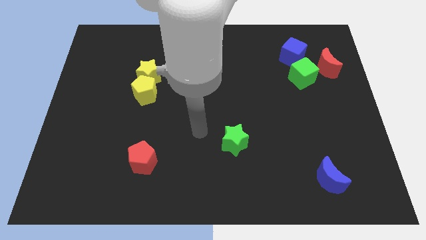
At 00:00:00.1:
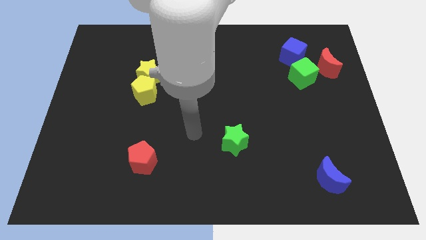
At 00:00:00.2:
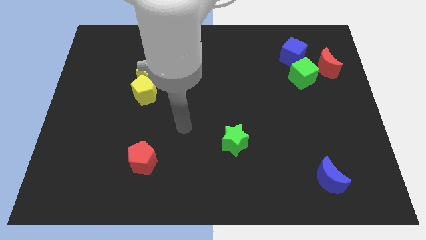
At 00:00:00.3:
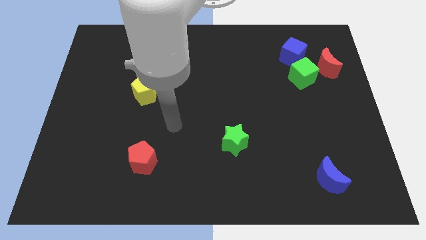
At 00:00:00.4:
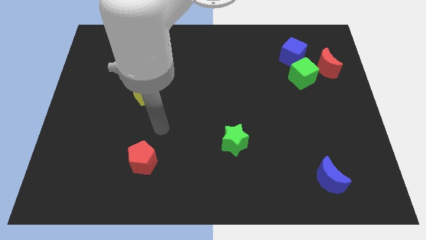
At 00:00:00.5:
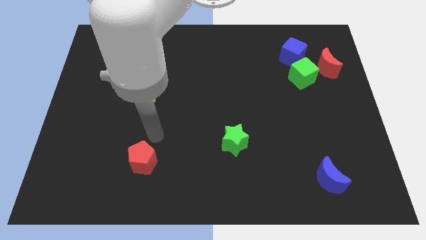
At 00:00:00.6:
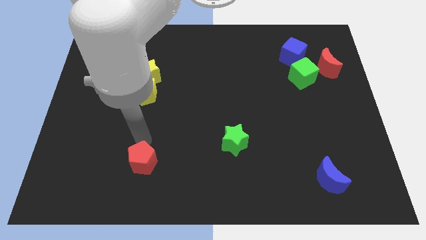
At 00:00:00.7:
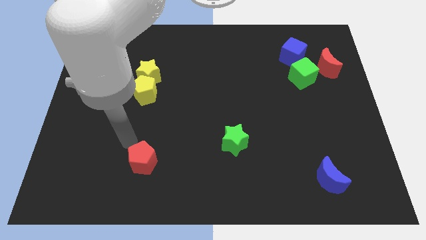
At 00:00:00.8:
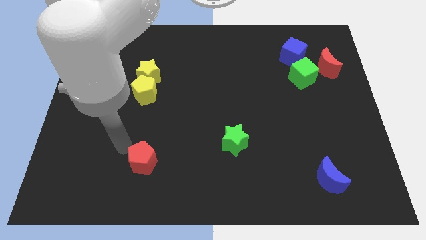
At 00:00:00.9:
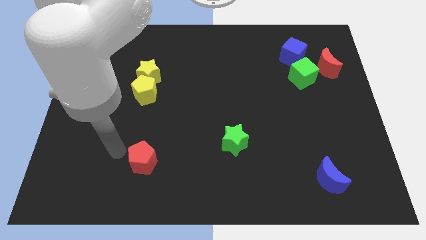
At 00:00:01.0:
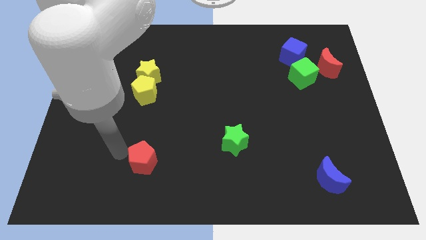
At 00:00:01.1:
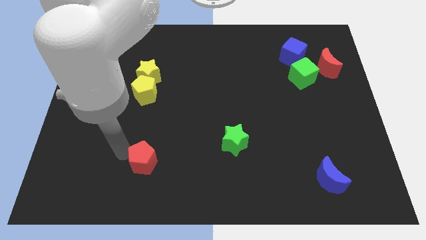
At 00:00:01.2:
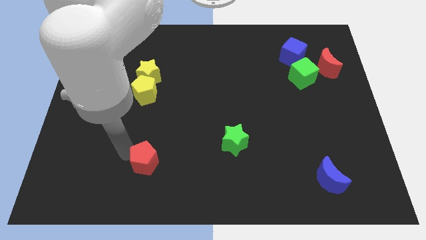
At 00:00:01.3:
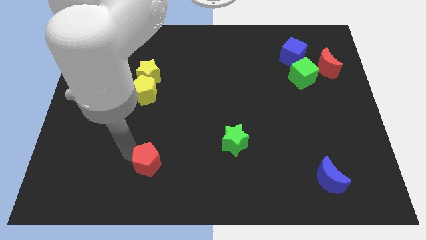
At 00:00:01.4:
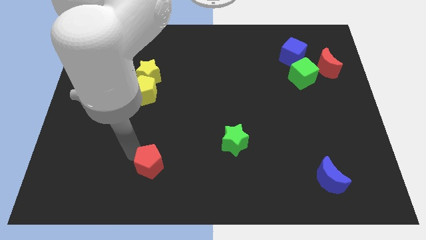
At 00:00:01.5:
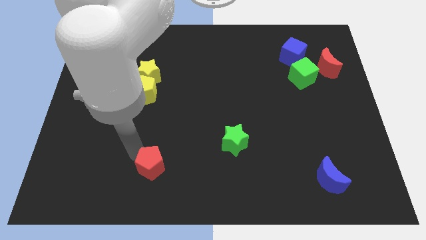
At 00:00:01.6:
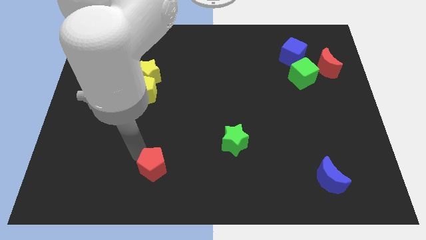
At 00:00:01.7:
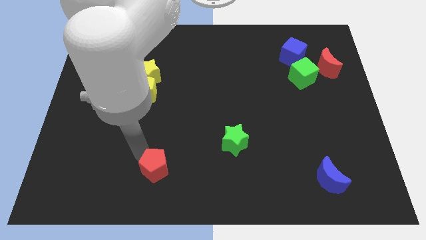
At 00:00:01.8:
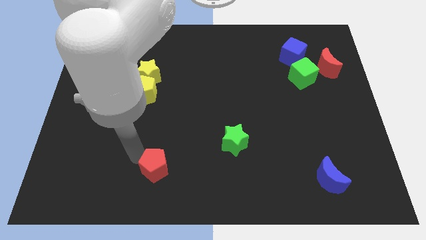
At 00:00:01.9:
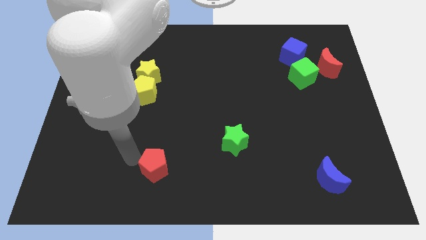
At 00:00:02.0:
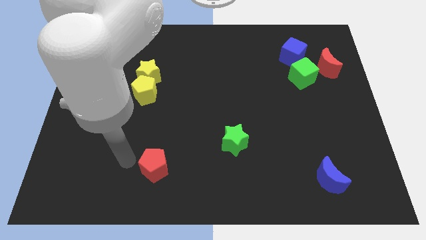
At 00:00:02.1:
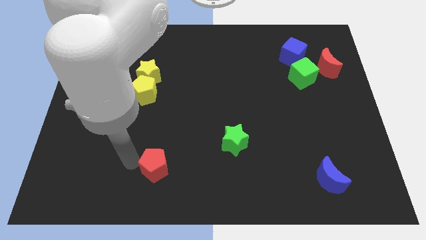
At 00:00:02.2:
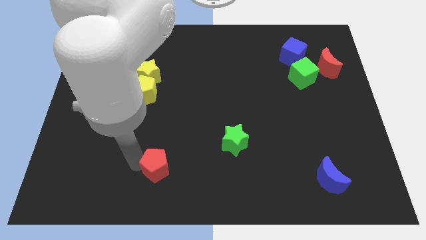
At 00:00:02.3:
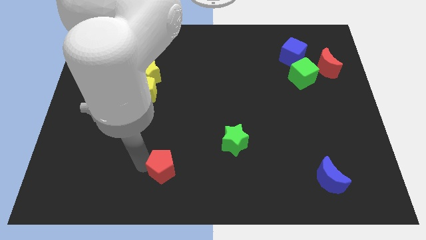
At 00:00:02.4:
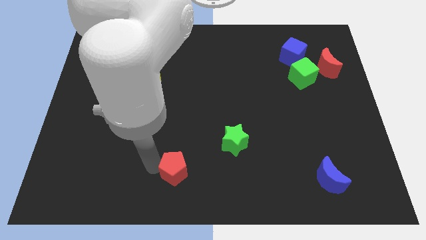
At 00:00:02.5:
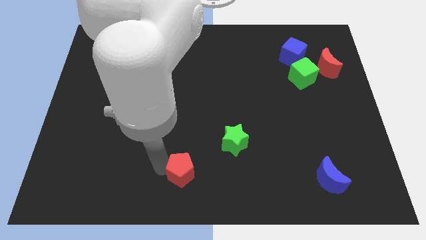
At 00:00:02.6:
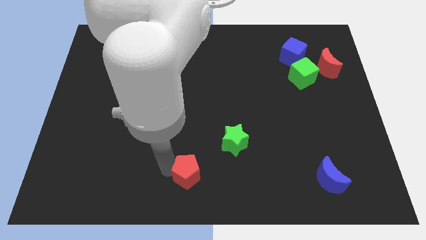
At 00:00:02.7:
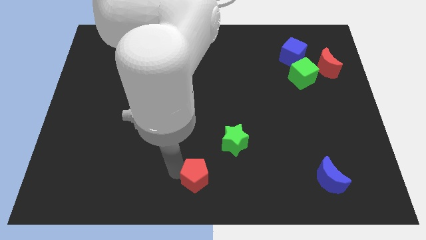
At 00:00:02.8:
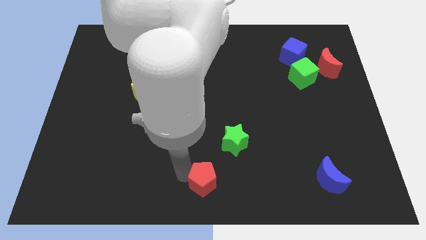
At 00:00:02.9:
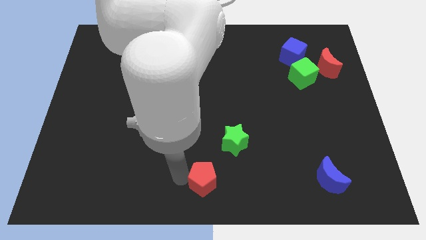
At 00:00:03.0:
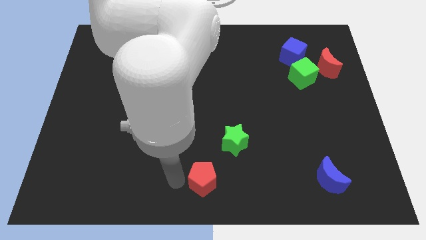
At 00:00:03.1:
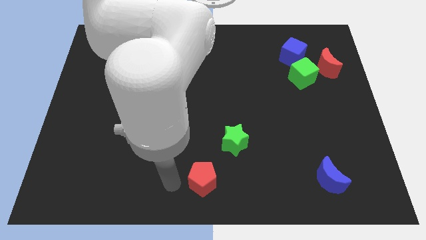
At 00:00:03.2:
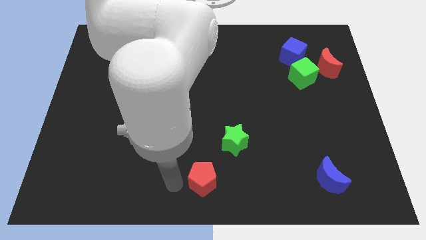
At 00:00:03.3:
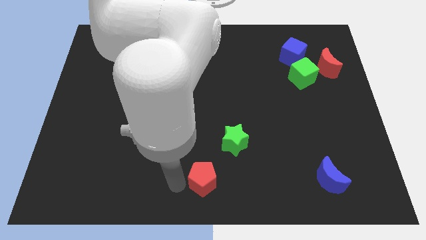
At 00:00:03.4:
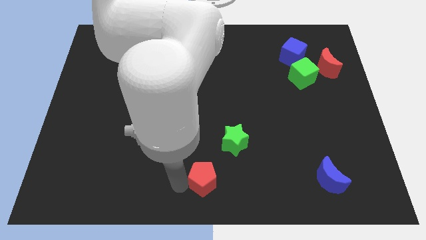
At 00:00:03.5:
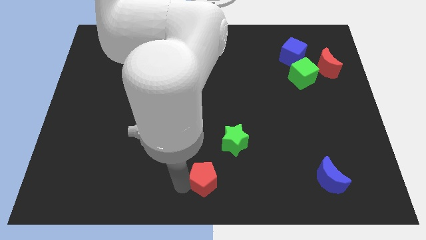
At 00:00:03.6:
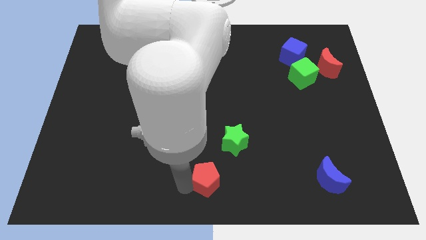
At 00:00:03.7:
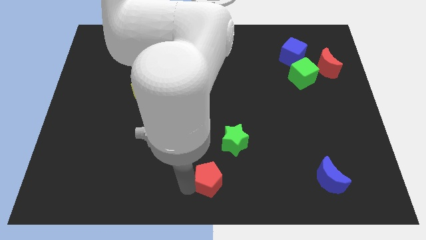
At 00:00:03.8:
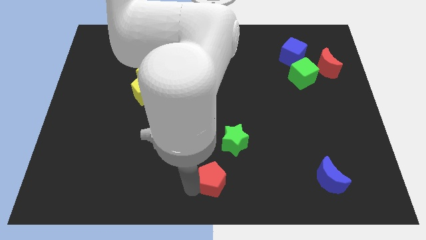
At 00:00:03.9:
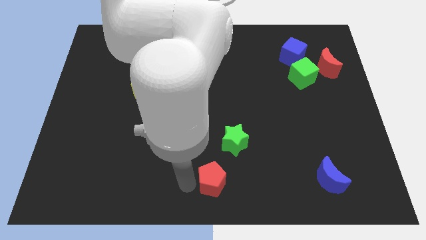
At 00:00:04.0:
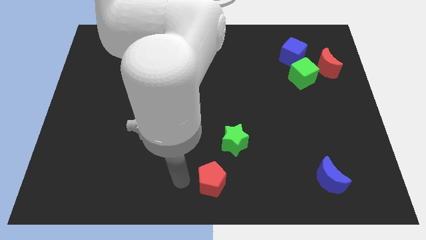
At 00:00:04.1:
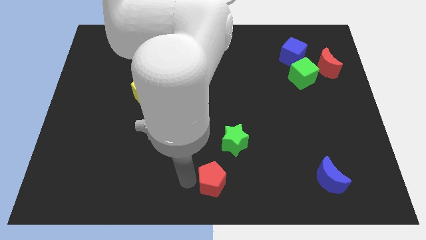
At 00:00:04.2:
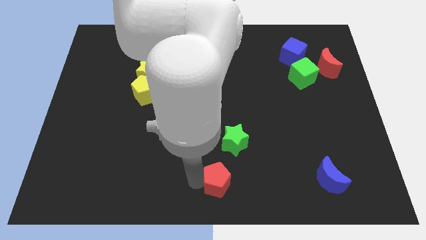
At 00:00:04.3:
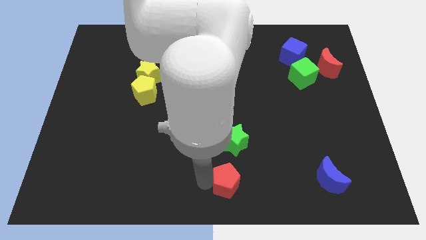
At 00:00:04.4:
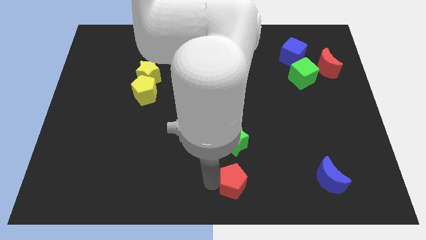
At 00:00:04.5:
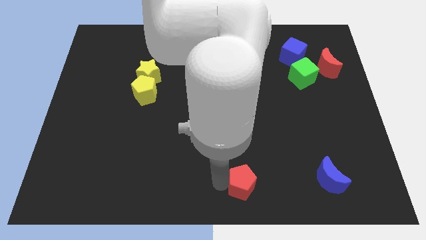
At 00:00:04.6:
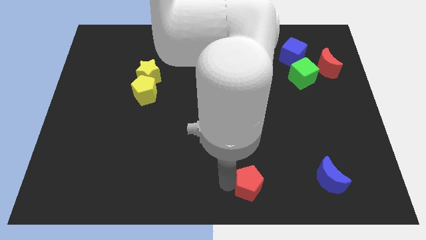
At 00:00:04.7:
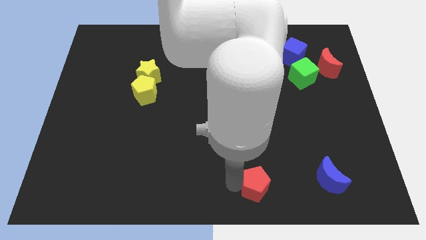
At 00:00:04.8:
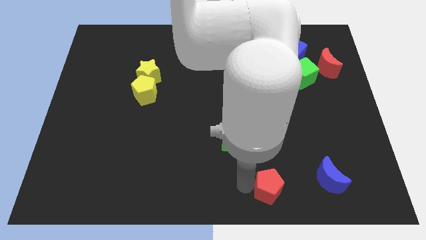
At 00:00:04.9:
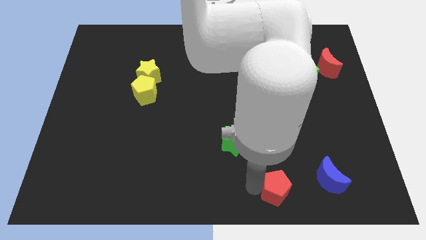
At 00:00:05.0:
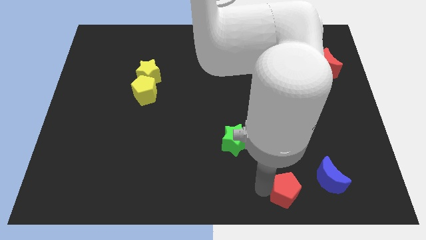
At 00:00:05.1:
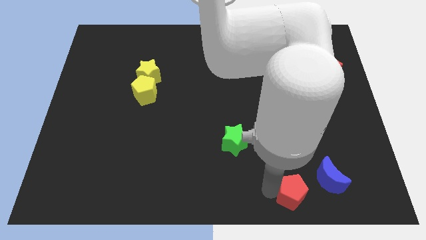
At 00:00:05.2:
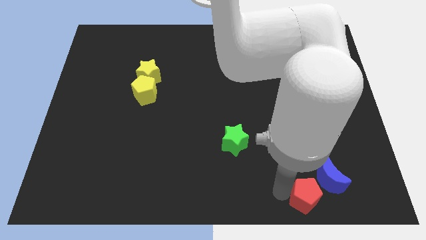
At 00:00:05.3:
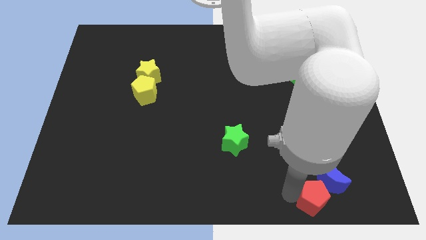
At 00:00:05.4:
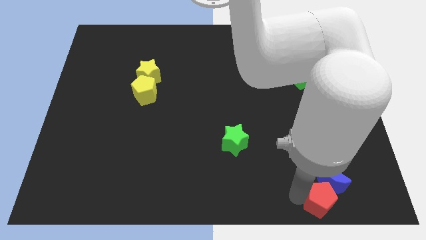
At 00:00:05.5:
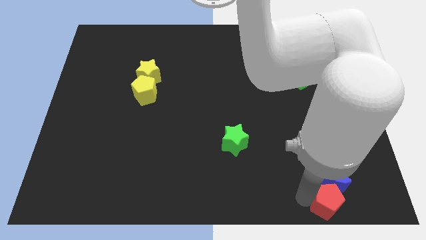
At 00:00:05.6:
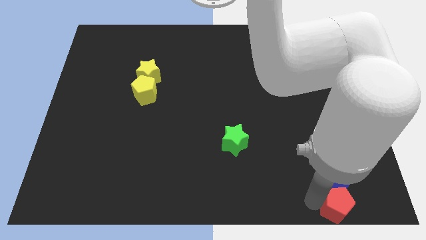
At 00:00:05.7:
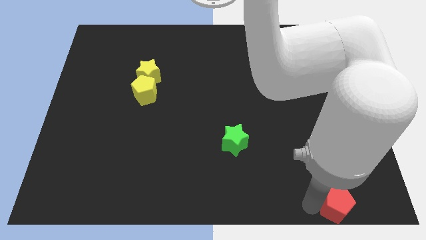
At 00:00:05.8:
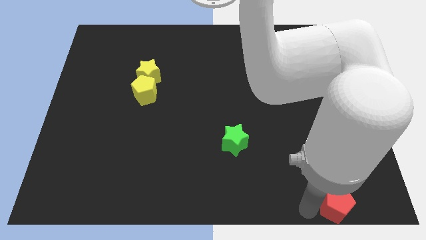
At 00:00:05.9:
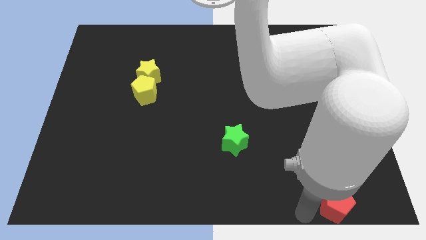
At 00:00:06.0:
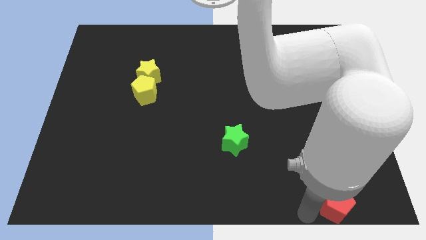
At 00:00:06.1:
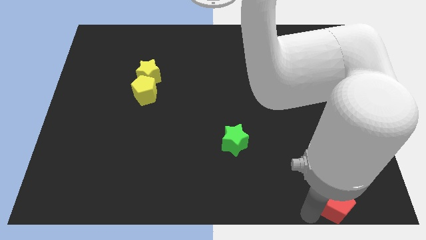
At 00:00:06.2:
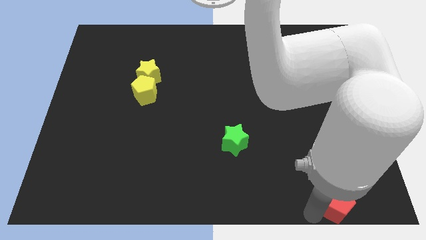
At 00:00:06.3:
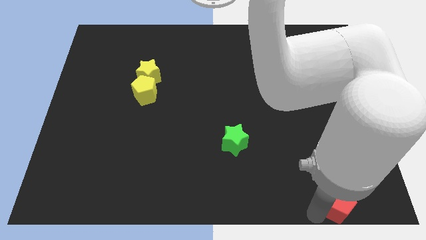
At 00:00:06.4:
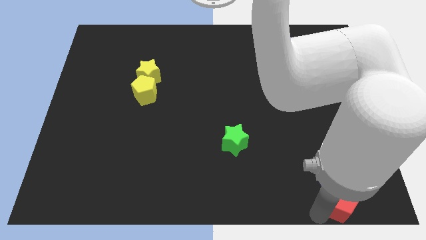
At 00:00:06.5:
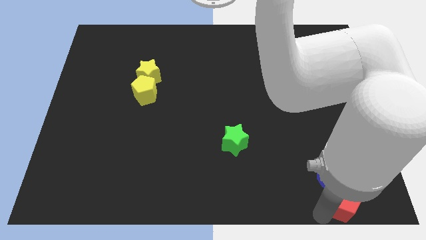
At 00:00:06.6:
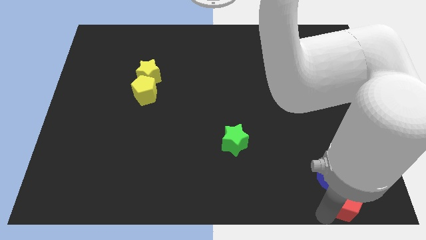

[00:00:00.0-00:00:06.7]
put the red pentagon to the lower right corner
